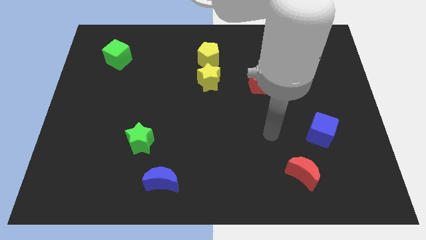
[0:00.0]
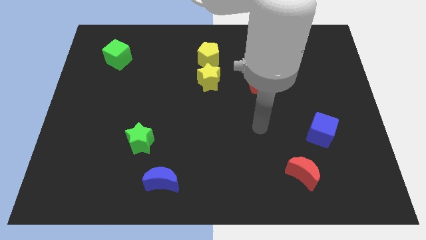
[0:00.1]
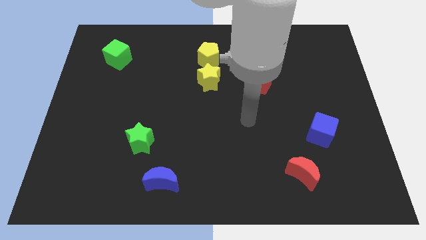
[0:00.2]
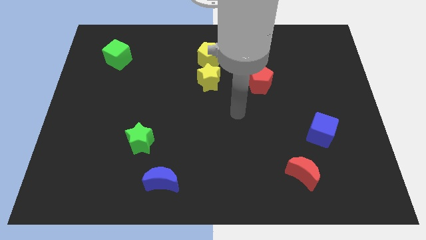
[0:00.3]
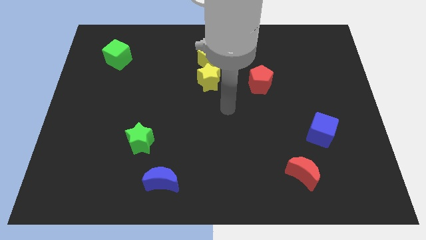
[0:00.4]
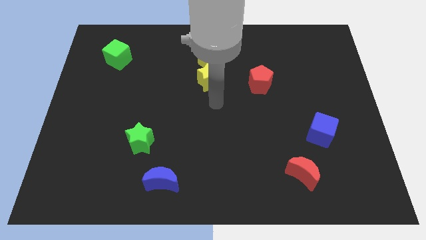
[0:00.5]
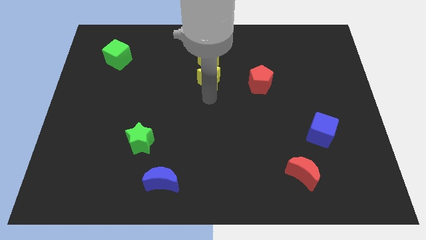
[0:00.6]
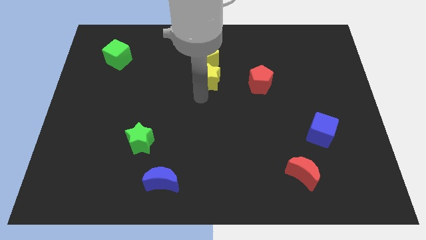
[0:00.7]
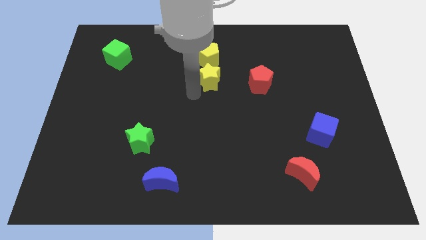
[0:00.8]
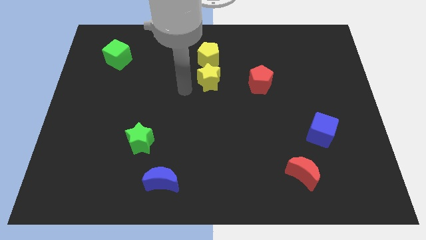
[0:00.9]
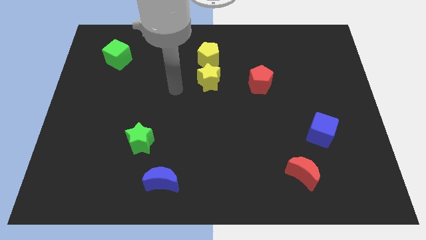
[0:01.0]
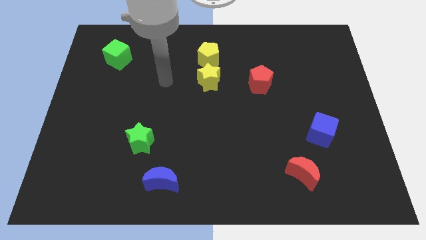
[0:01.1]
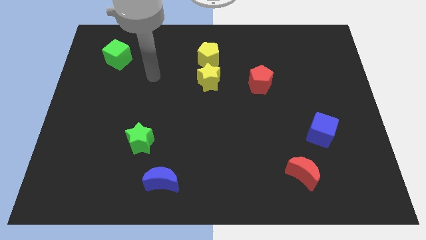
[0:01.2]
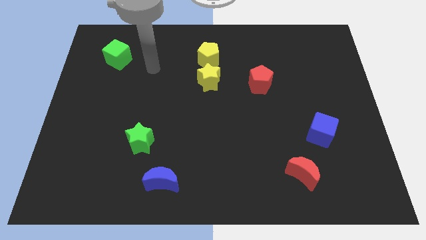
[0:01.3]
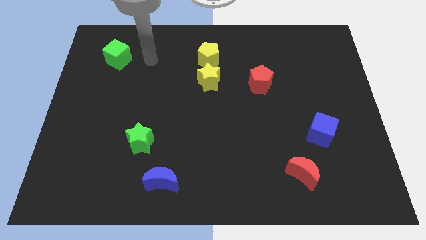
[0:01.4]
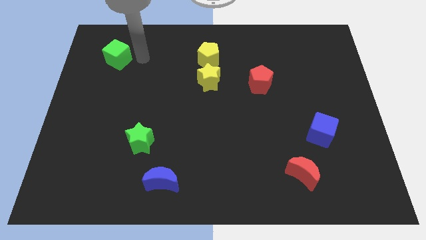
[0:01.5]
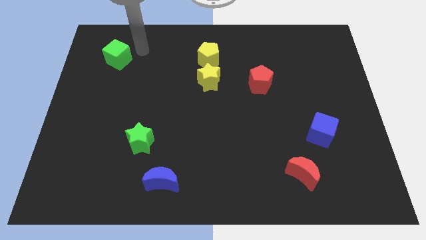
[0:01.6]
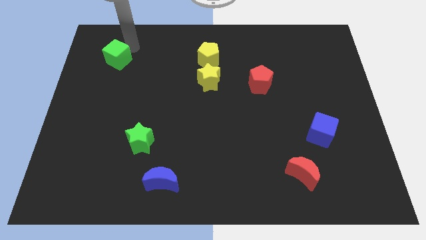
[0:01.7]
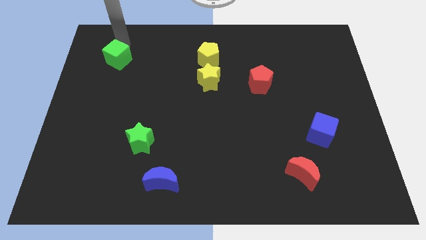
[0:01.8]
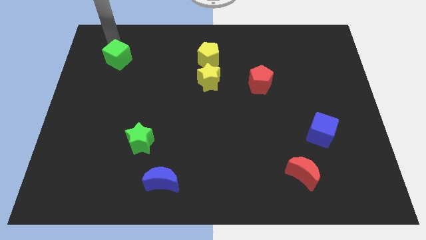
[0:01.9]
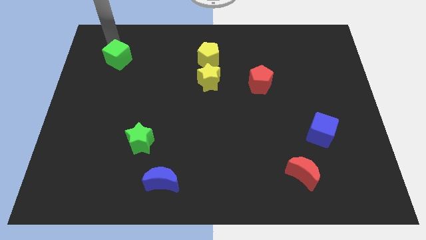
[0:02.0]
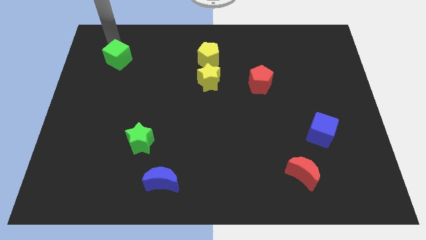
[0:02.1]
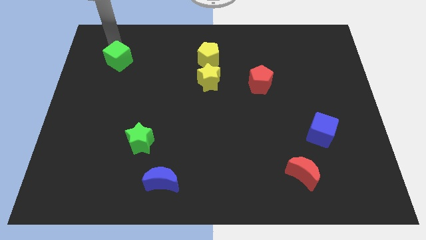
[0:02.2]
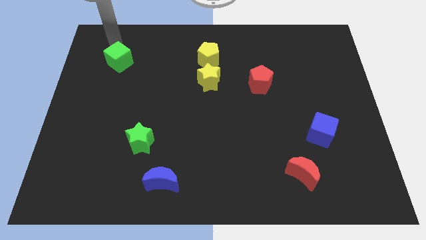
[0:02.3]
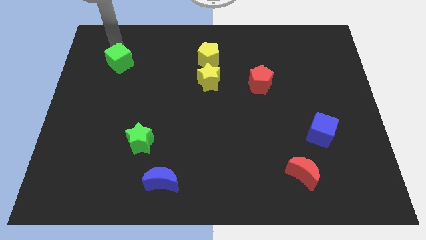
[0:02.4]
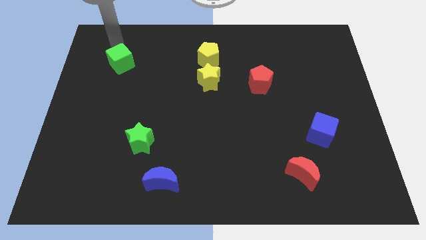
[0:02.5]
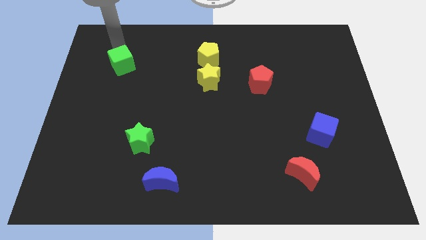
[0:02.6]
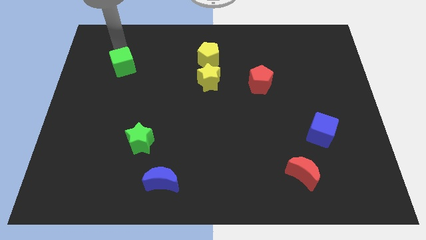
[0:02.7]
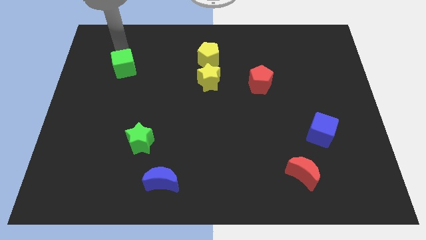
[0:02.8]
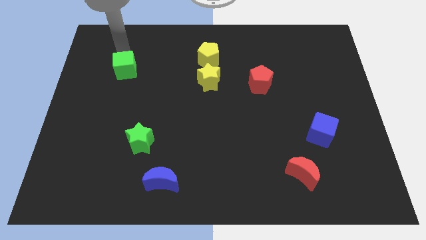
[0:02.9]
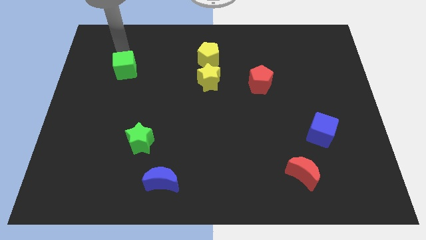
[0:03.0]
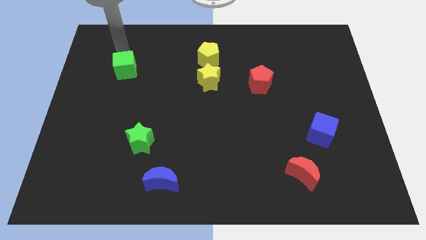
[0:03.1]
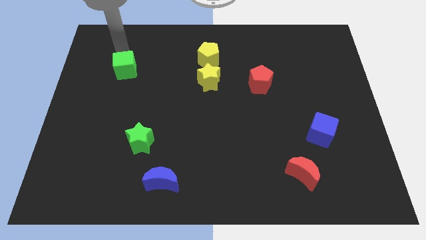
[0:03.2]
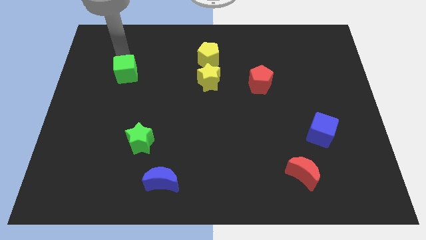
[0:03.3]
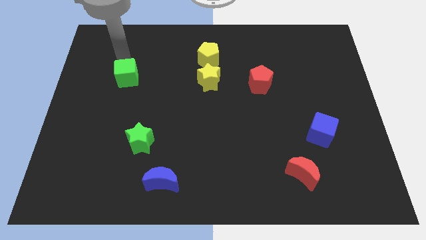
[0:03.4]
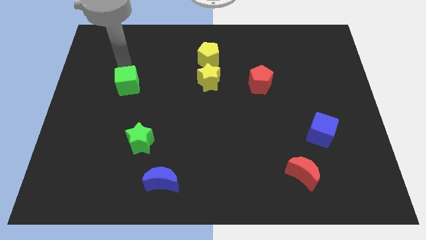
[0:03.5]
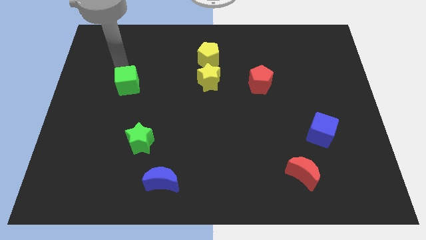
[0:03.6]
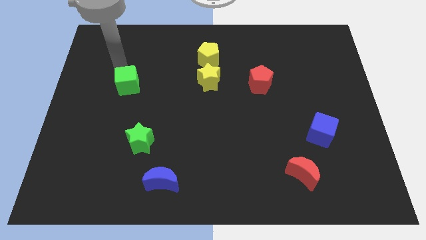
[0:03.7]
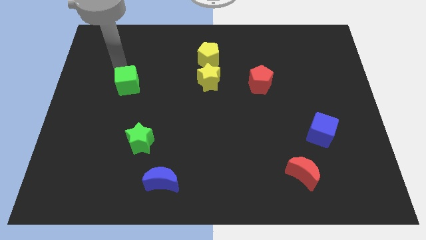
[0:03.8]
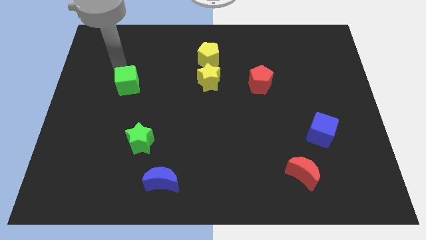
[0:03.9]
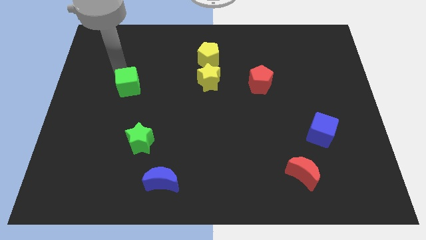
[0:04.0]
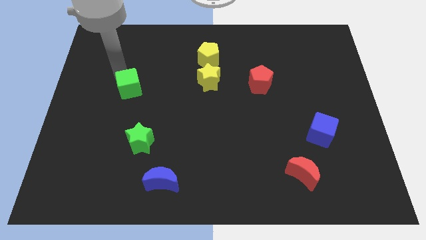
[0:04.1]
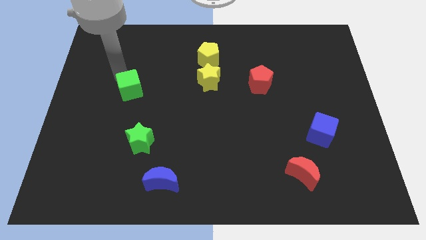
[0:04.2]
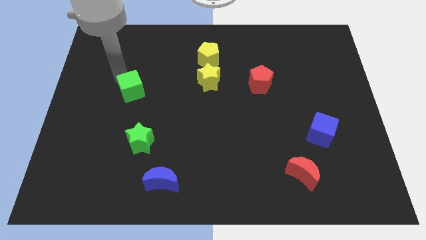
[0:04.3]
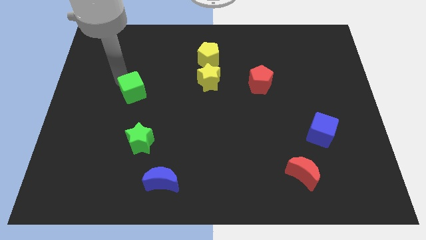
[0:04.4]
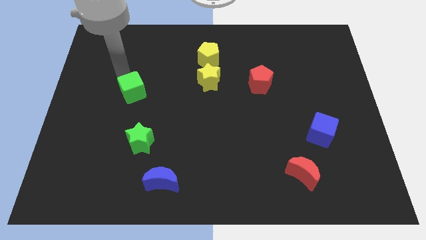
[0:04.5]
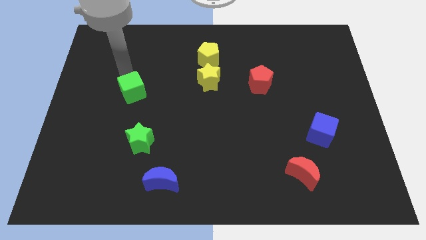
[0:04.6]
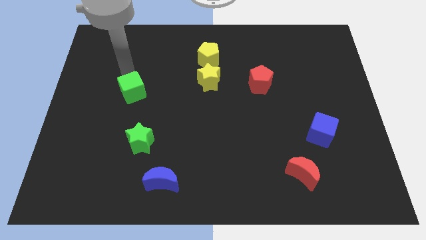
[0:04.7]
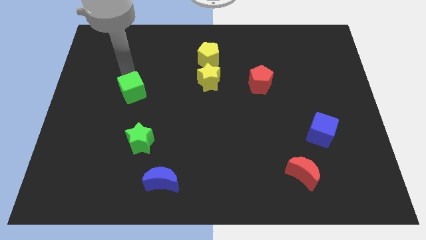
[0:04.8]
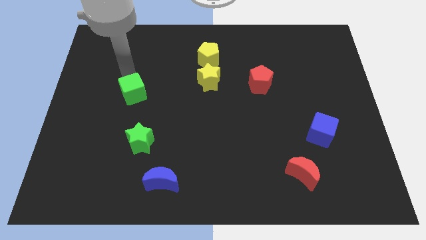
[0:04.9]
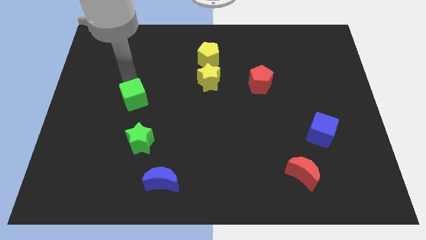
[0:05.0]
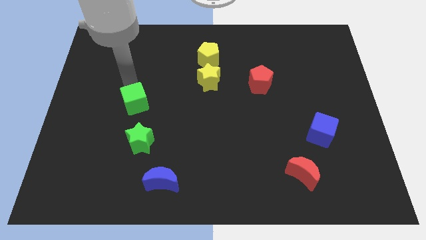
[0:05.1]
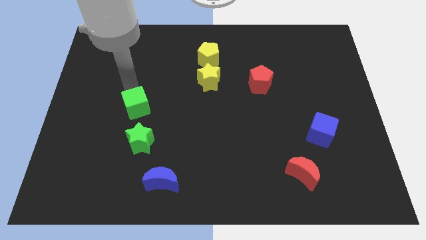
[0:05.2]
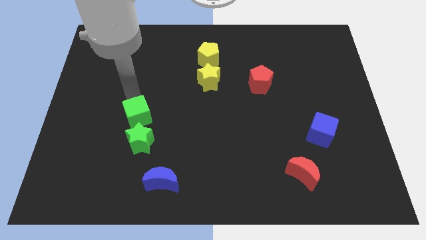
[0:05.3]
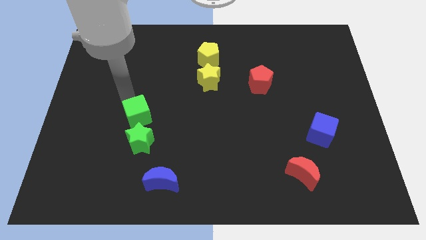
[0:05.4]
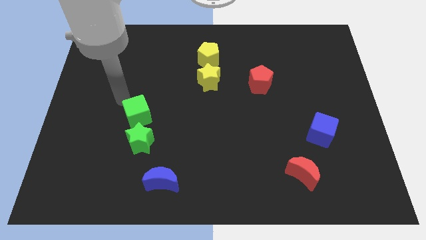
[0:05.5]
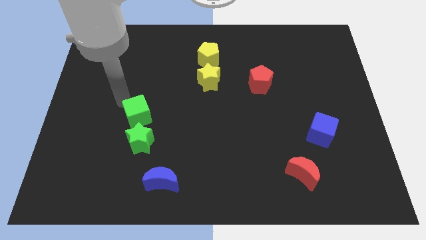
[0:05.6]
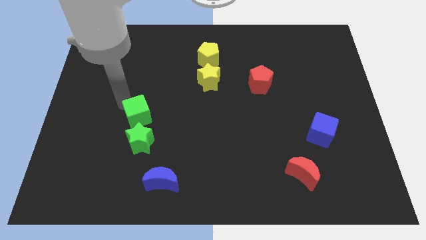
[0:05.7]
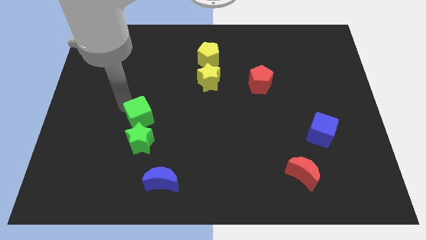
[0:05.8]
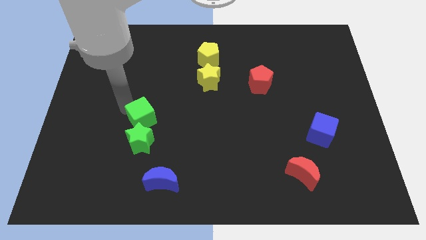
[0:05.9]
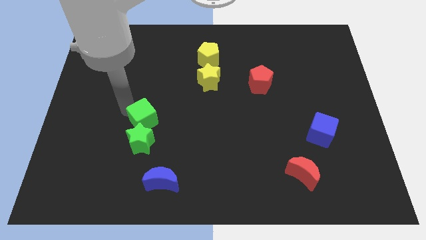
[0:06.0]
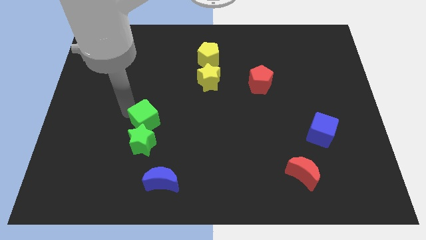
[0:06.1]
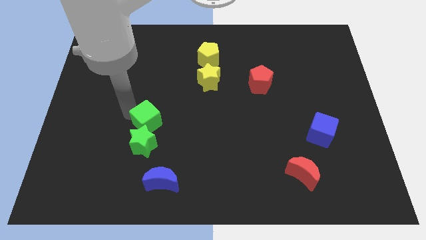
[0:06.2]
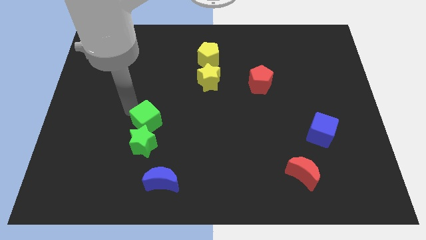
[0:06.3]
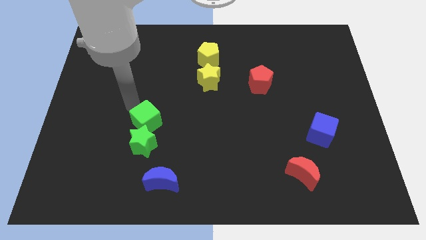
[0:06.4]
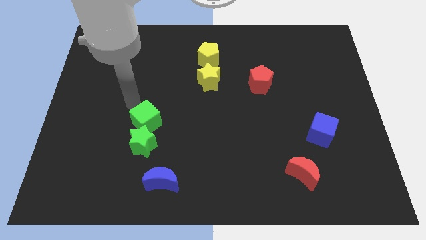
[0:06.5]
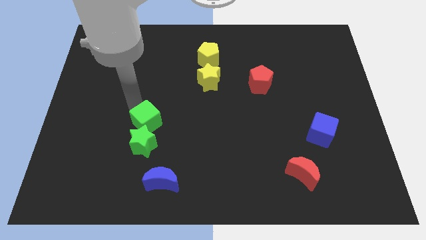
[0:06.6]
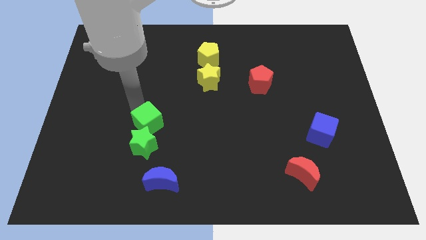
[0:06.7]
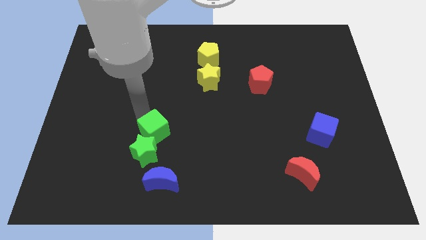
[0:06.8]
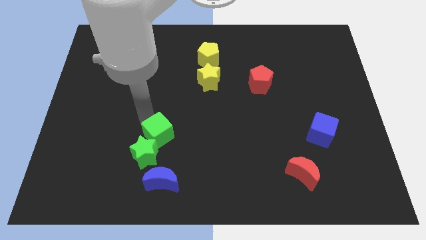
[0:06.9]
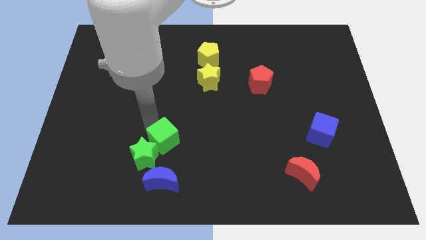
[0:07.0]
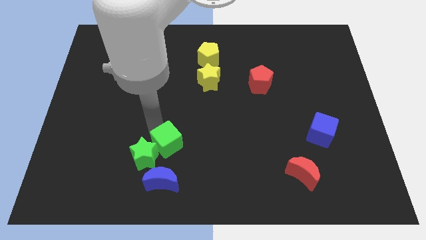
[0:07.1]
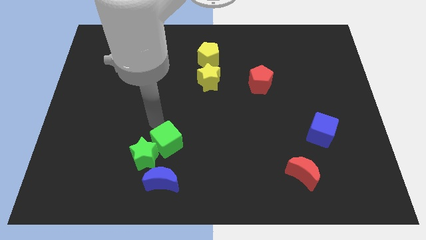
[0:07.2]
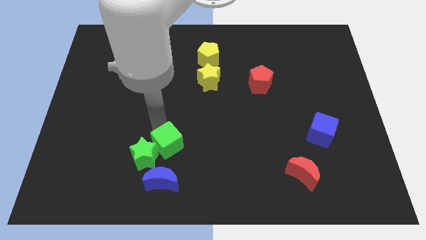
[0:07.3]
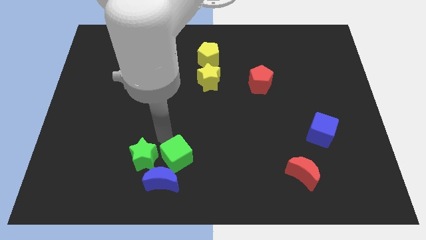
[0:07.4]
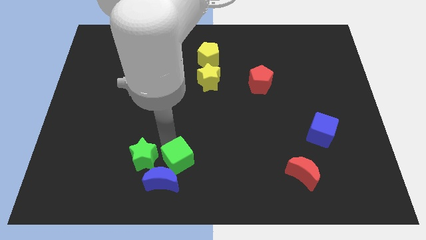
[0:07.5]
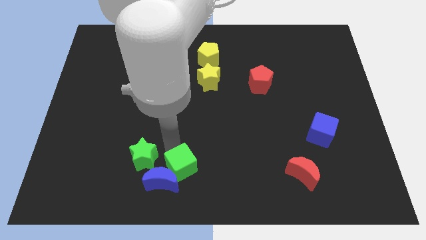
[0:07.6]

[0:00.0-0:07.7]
push the green cube to the bottom
